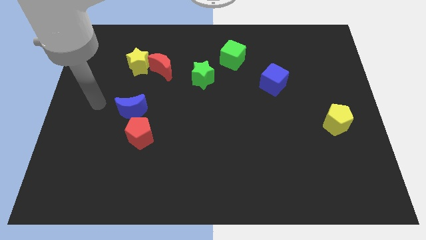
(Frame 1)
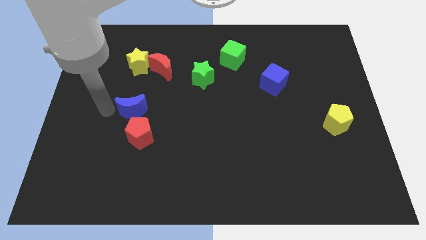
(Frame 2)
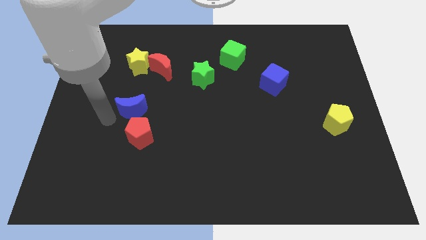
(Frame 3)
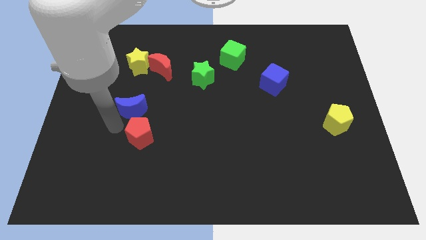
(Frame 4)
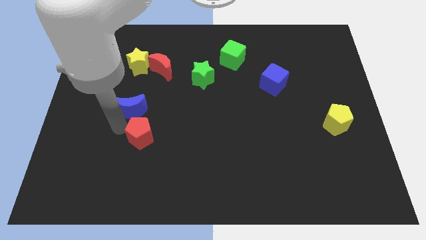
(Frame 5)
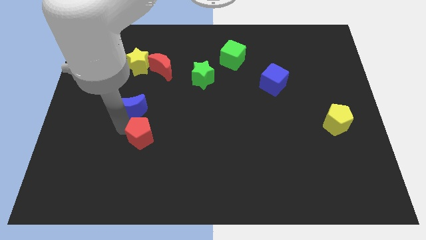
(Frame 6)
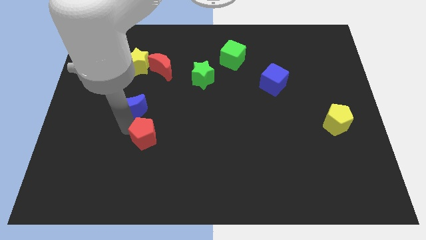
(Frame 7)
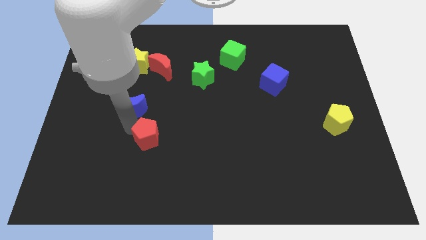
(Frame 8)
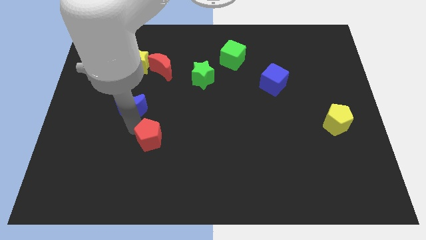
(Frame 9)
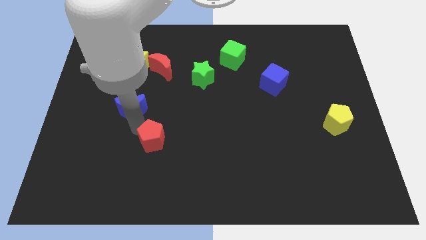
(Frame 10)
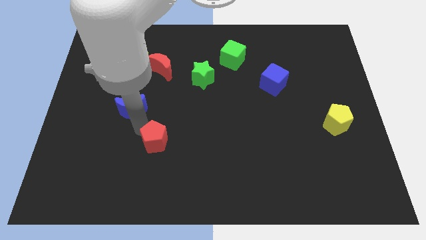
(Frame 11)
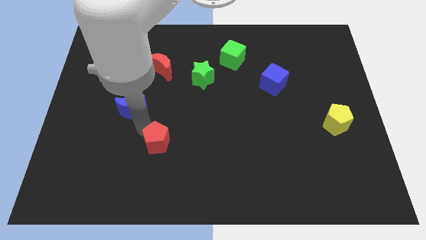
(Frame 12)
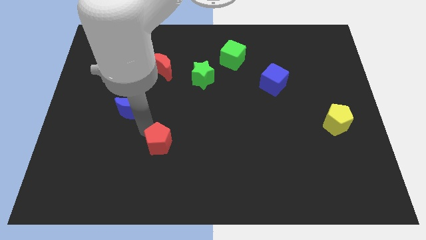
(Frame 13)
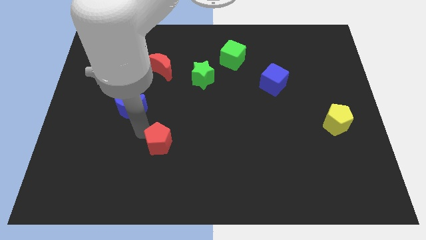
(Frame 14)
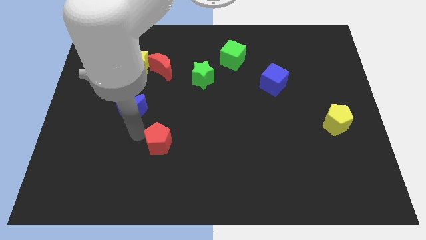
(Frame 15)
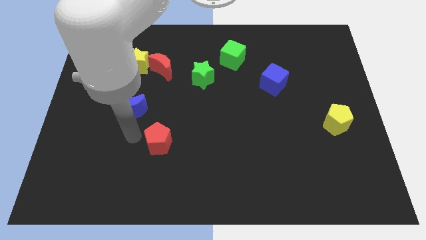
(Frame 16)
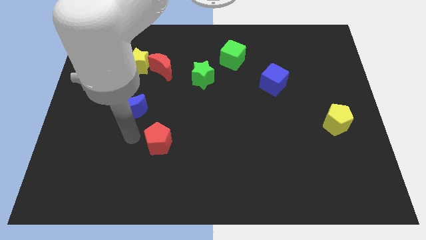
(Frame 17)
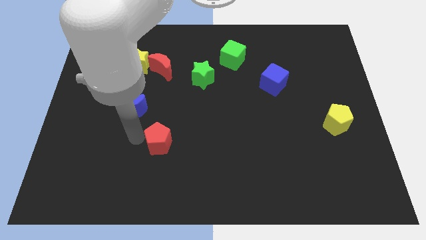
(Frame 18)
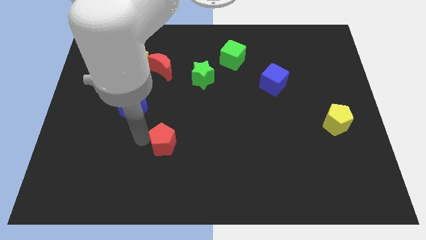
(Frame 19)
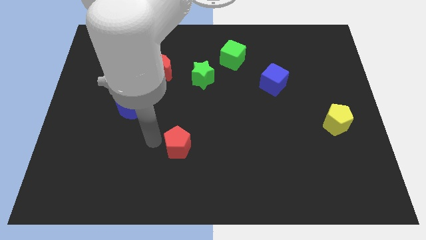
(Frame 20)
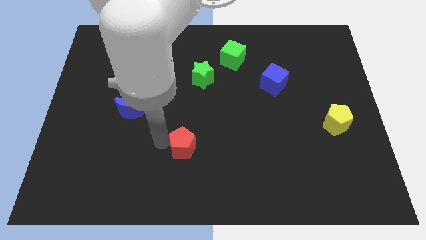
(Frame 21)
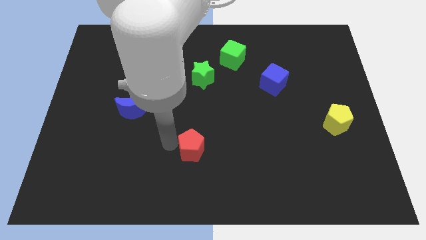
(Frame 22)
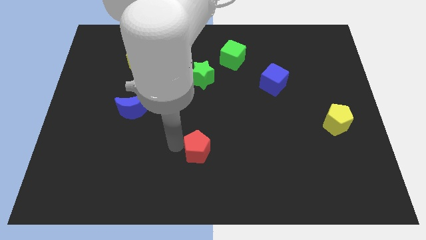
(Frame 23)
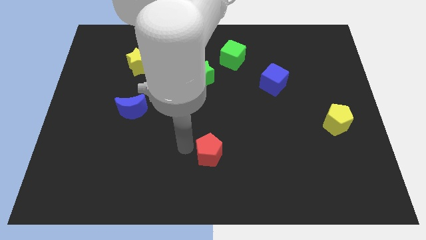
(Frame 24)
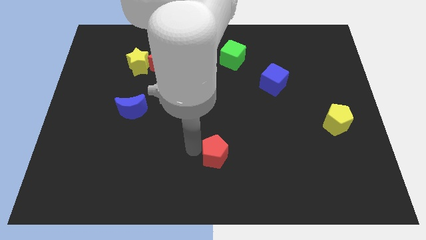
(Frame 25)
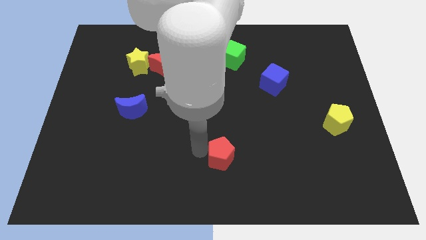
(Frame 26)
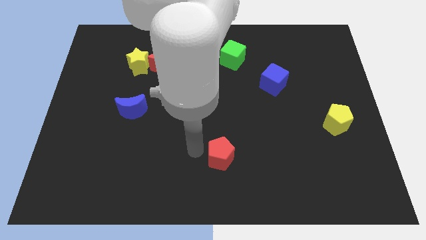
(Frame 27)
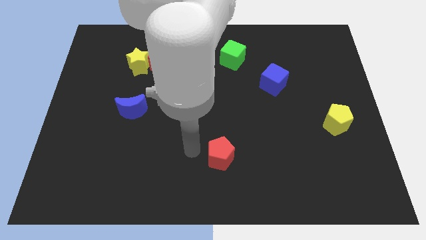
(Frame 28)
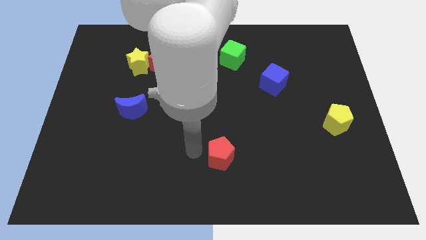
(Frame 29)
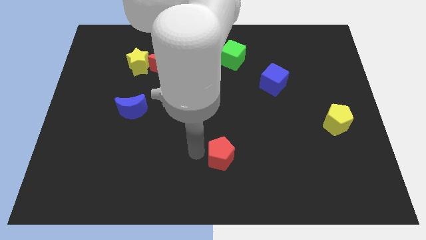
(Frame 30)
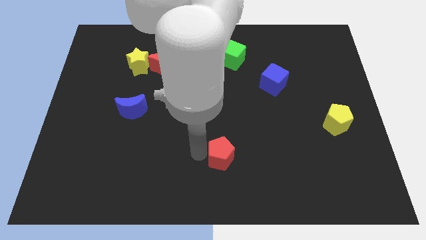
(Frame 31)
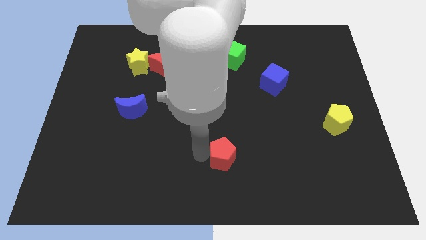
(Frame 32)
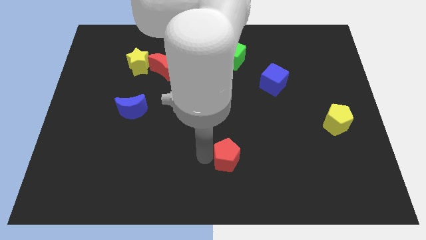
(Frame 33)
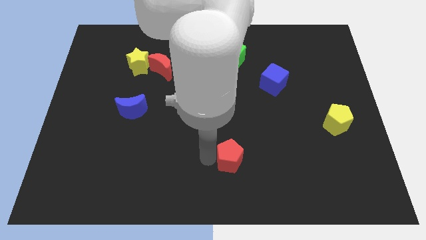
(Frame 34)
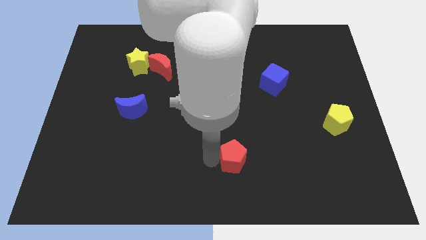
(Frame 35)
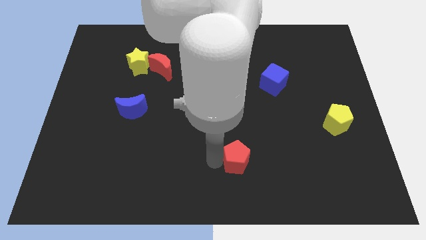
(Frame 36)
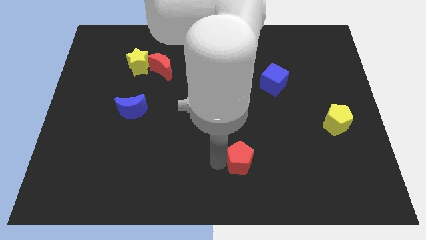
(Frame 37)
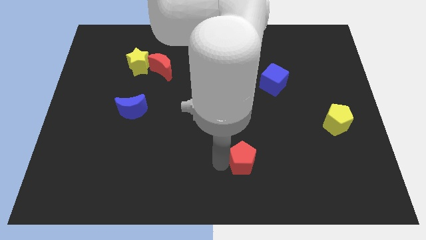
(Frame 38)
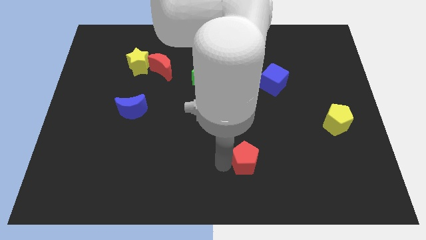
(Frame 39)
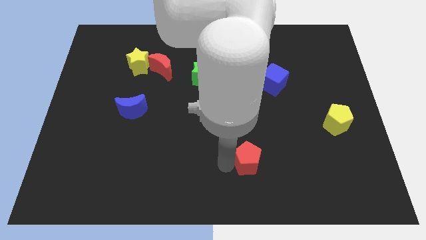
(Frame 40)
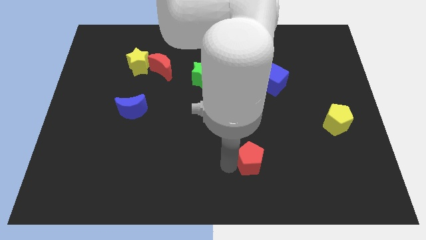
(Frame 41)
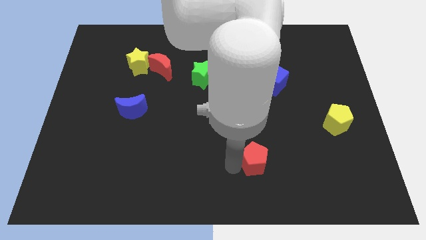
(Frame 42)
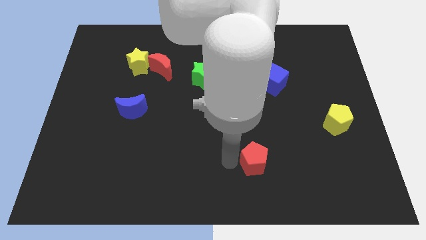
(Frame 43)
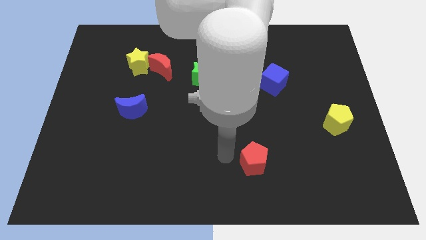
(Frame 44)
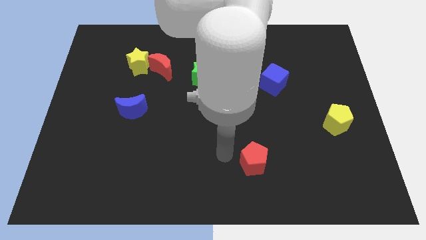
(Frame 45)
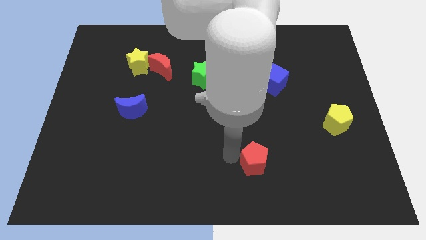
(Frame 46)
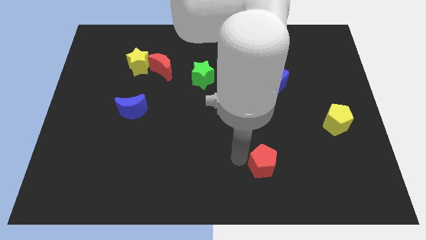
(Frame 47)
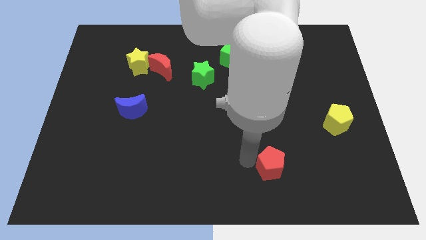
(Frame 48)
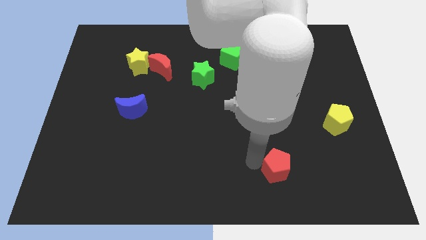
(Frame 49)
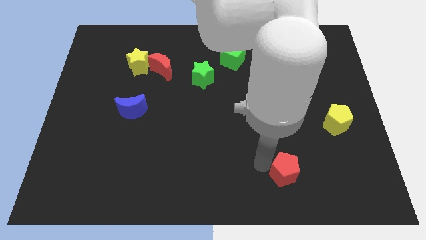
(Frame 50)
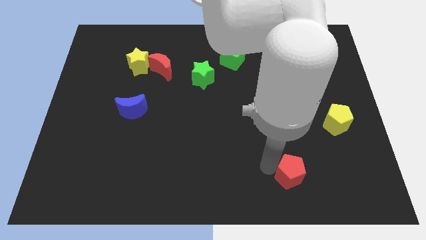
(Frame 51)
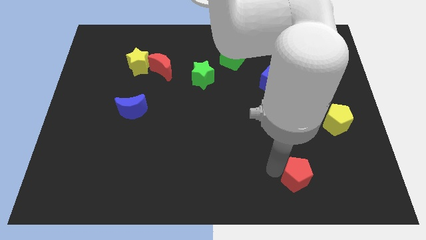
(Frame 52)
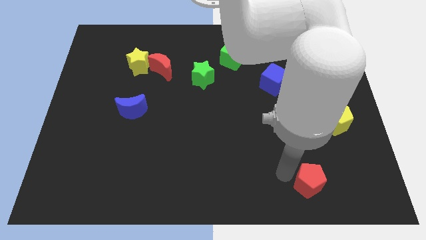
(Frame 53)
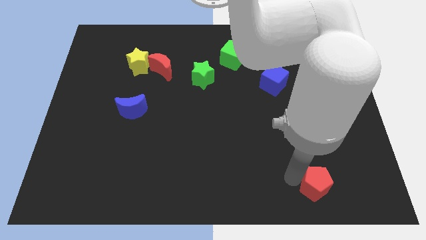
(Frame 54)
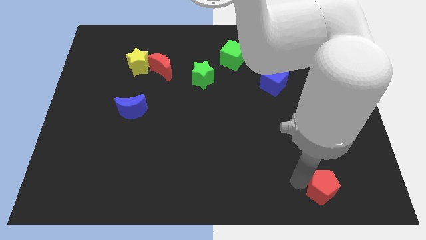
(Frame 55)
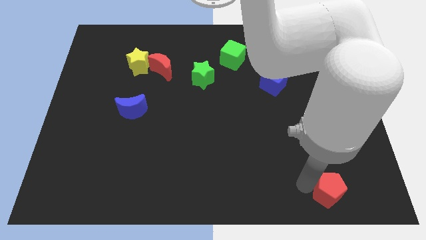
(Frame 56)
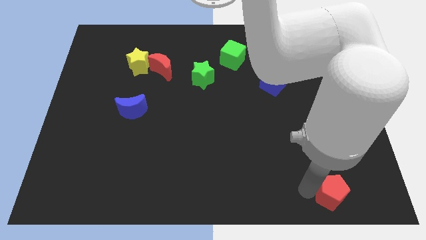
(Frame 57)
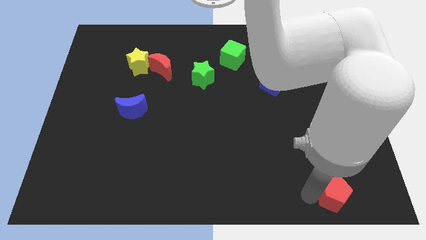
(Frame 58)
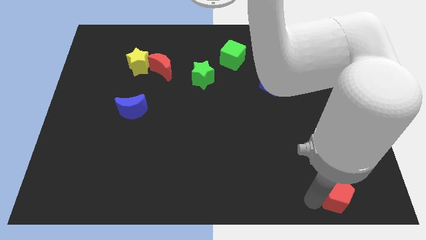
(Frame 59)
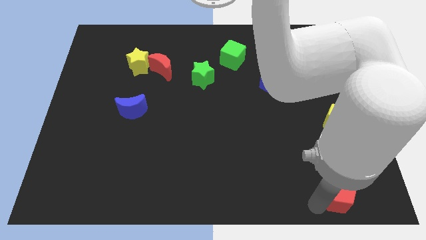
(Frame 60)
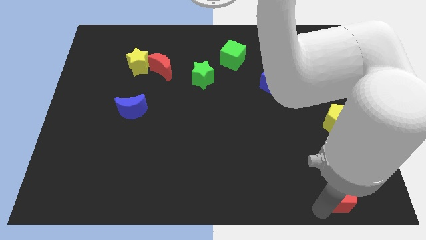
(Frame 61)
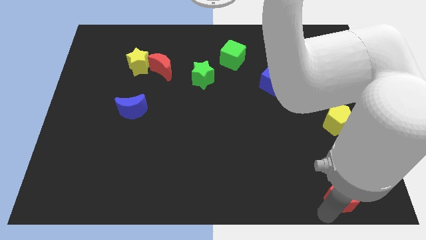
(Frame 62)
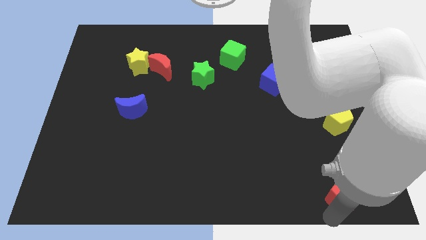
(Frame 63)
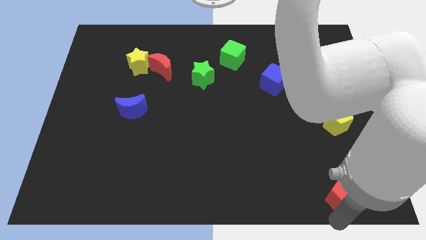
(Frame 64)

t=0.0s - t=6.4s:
put the red pentagon to the bottom right

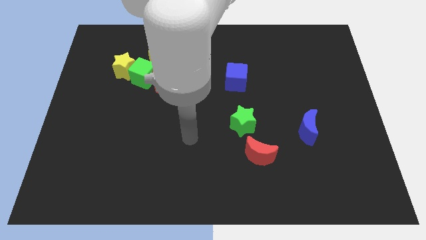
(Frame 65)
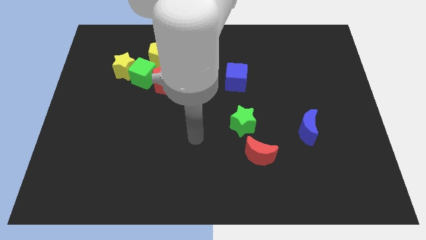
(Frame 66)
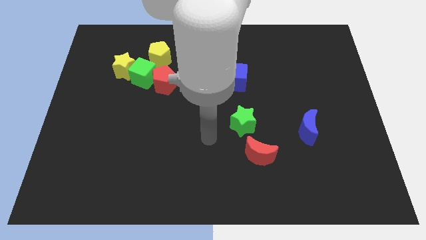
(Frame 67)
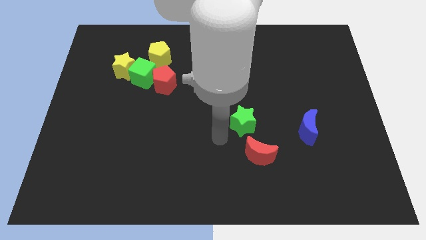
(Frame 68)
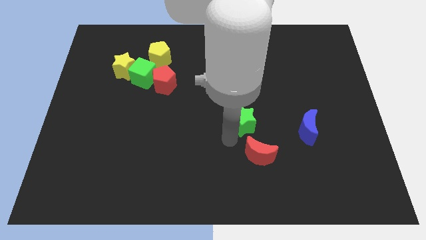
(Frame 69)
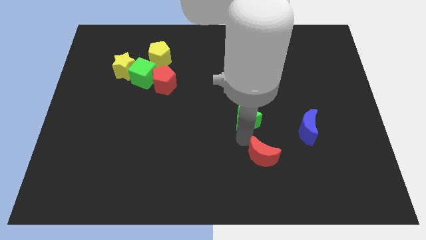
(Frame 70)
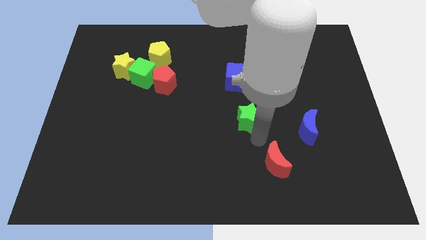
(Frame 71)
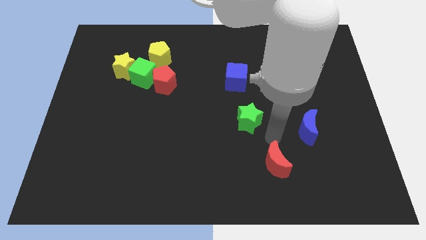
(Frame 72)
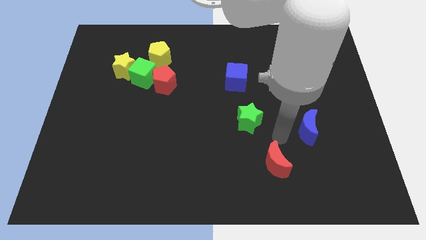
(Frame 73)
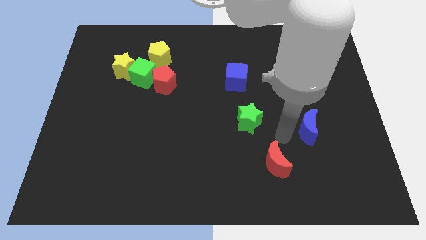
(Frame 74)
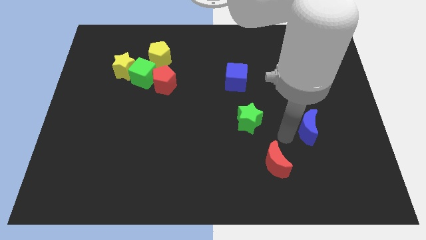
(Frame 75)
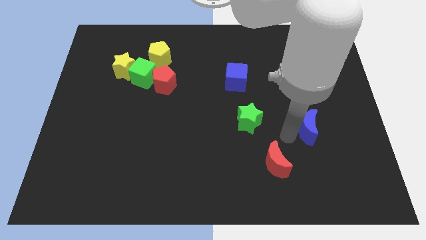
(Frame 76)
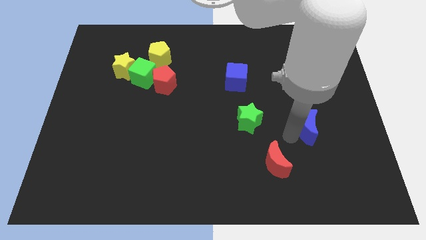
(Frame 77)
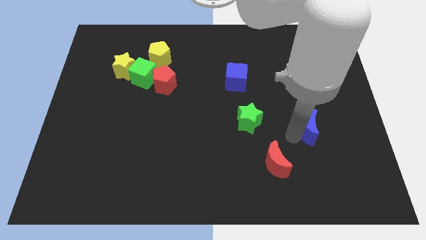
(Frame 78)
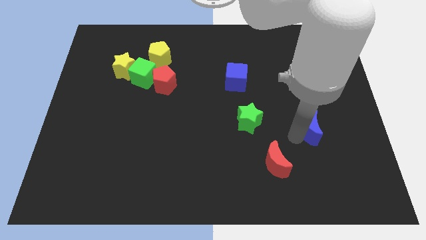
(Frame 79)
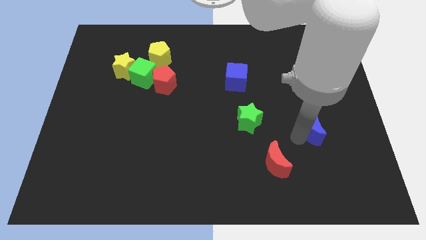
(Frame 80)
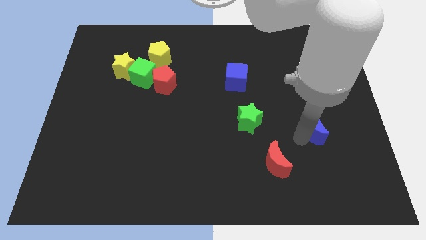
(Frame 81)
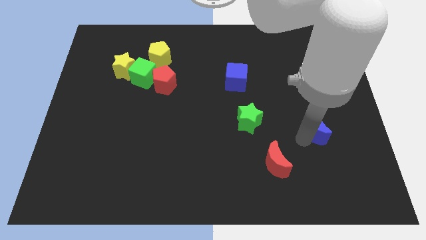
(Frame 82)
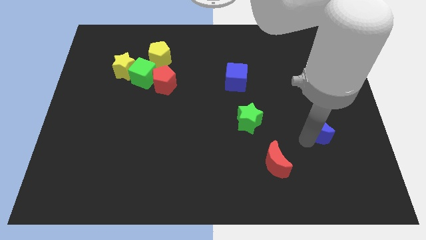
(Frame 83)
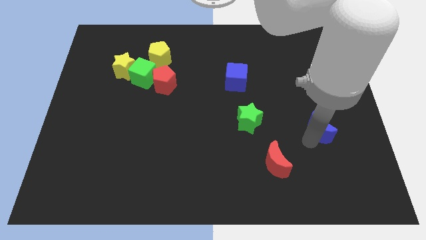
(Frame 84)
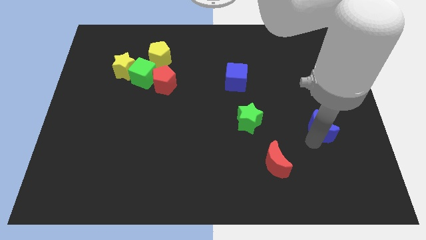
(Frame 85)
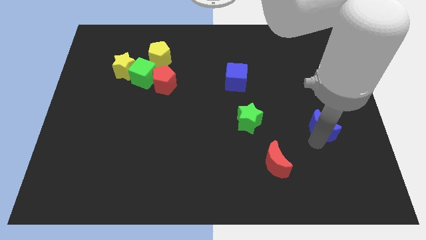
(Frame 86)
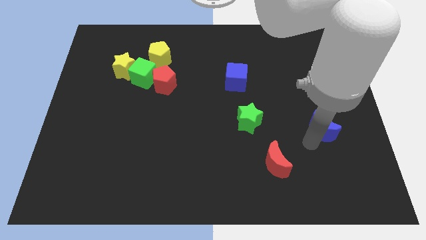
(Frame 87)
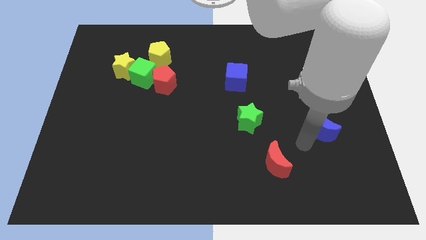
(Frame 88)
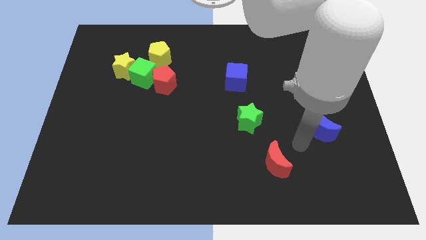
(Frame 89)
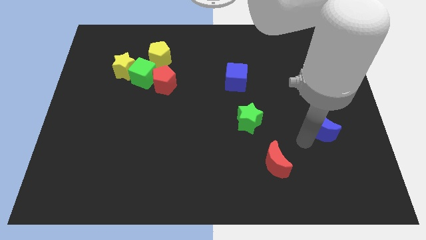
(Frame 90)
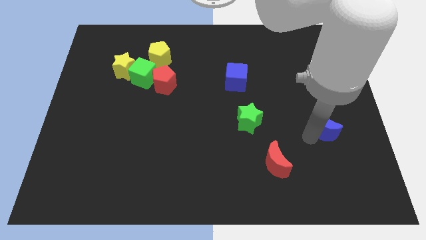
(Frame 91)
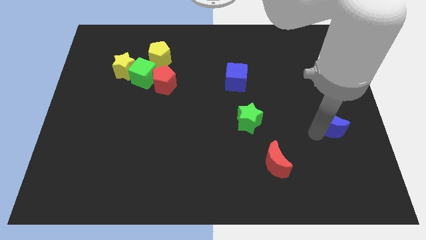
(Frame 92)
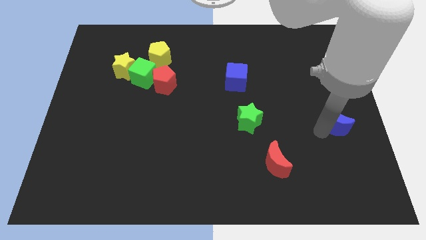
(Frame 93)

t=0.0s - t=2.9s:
move the blue moon to the right side
